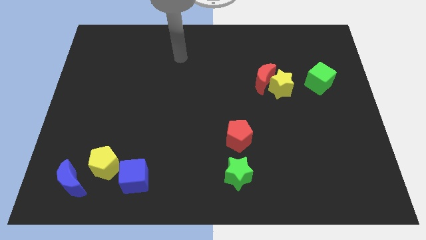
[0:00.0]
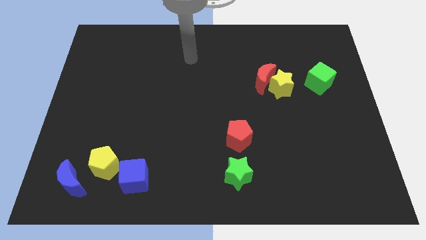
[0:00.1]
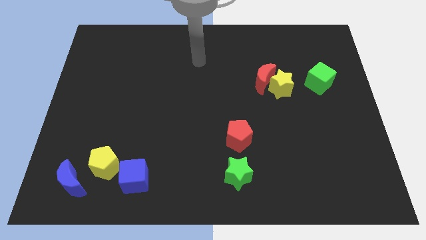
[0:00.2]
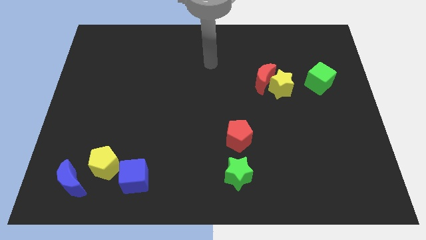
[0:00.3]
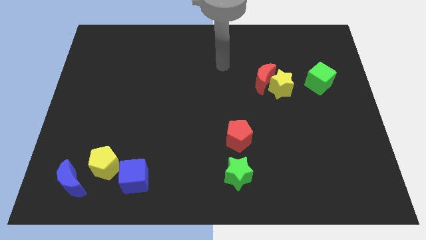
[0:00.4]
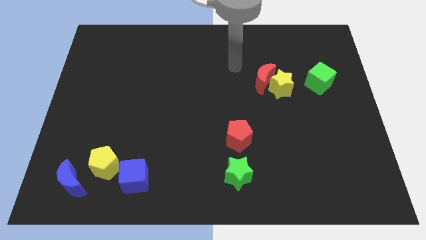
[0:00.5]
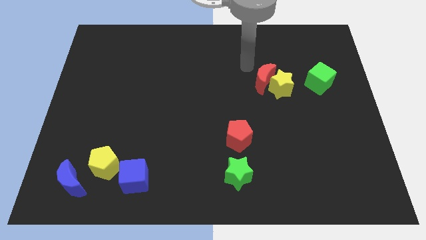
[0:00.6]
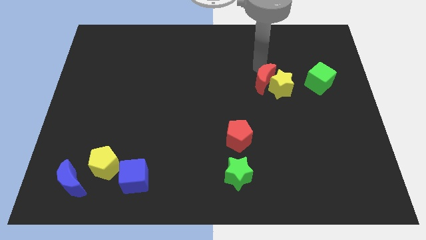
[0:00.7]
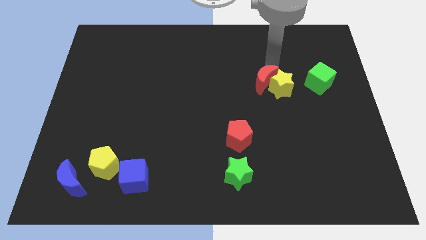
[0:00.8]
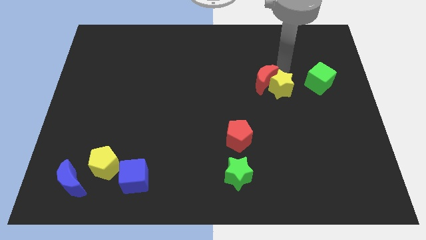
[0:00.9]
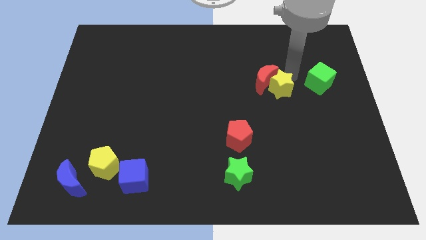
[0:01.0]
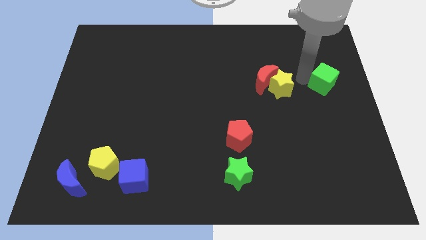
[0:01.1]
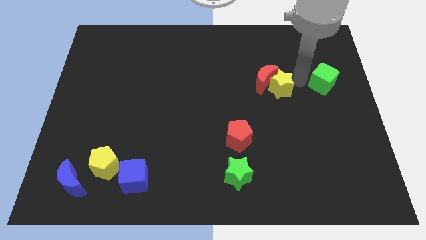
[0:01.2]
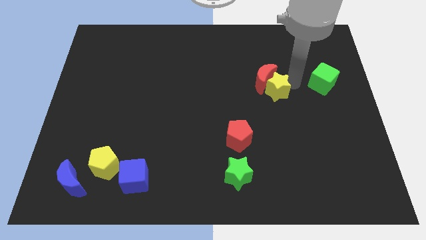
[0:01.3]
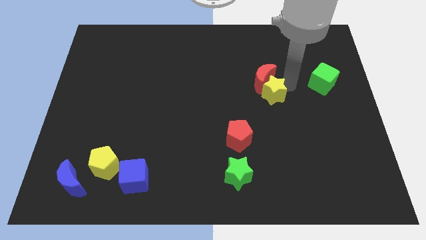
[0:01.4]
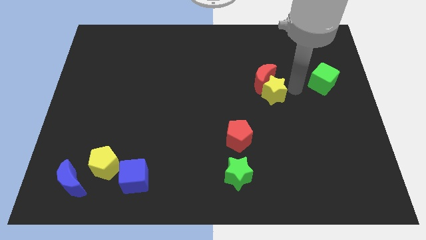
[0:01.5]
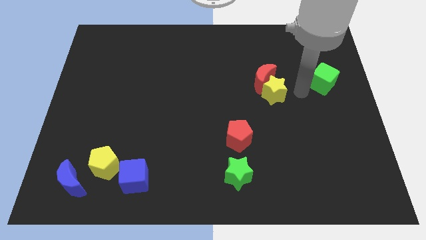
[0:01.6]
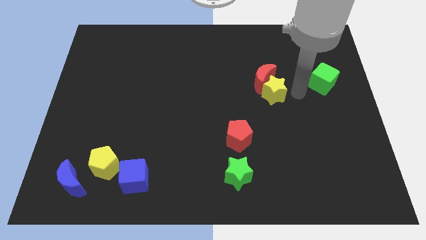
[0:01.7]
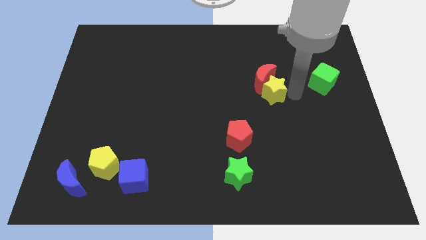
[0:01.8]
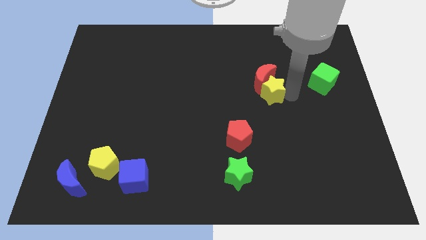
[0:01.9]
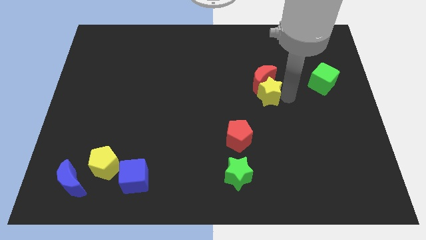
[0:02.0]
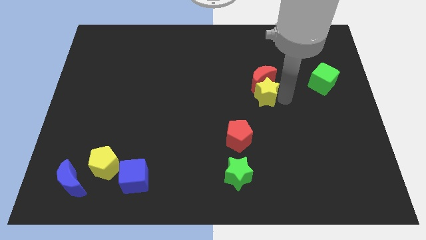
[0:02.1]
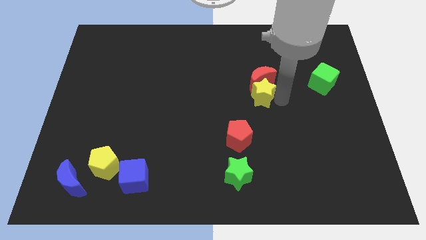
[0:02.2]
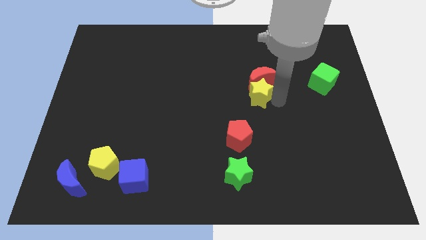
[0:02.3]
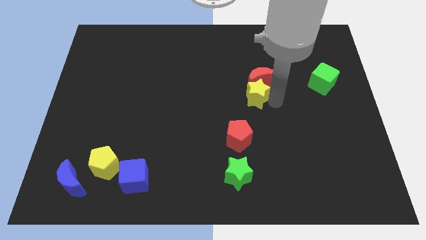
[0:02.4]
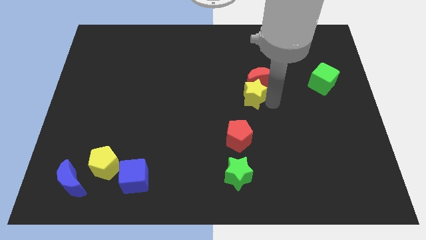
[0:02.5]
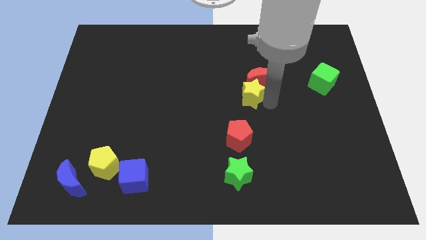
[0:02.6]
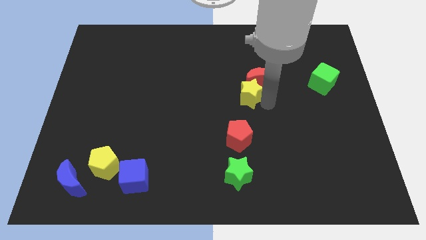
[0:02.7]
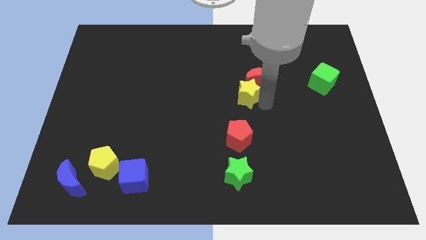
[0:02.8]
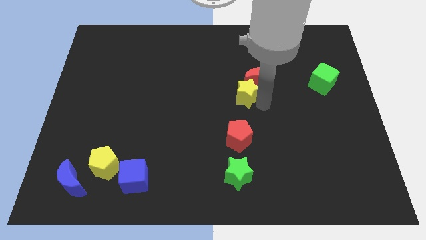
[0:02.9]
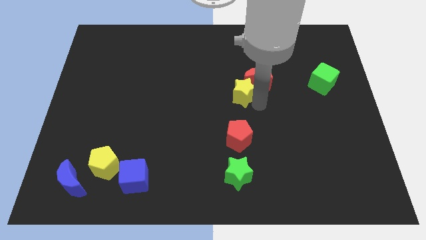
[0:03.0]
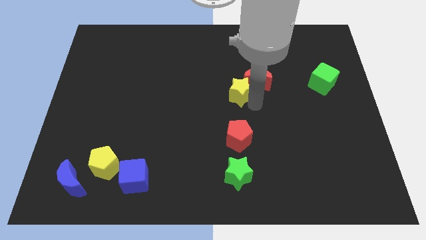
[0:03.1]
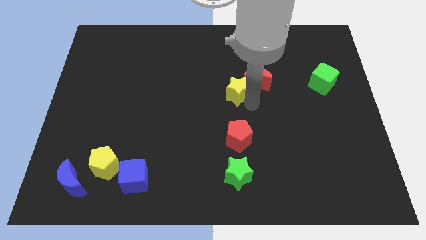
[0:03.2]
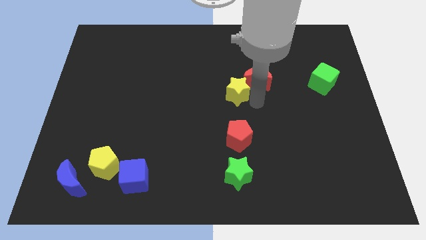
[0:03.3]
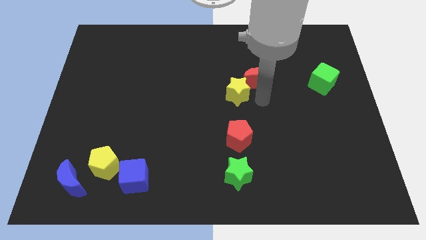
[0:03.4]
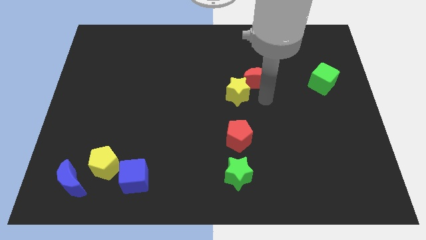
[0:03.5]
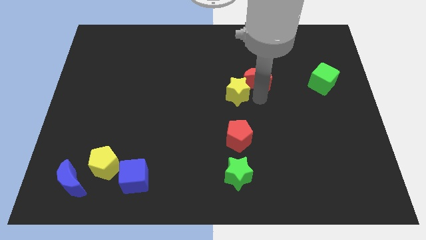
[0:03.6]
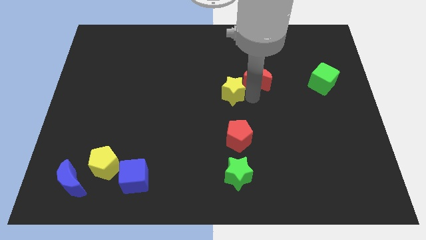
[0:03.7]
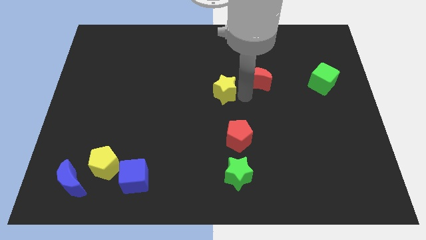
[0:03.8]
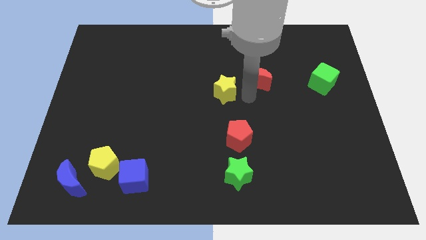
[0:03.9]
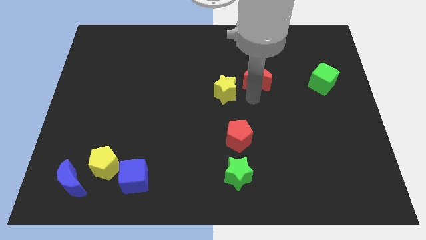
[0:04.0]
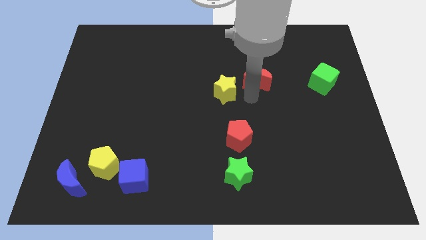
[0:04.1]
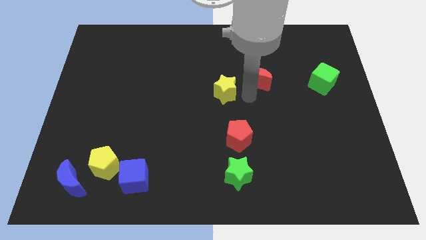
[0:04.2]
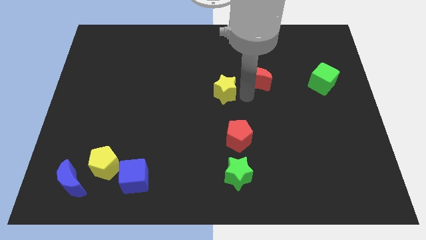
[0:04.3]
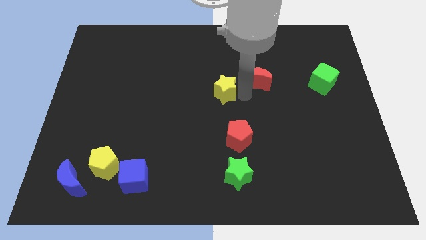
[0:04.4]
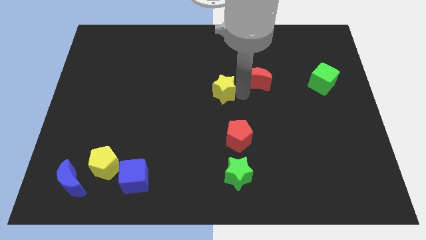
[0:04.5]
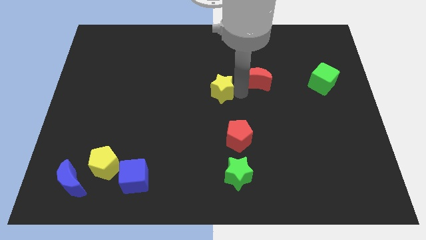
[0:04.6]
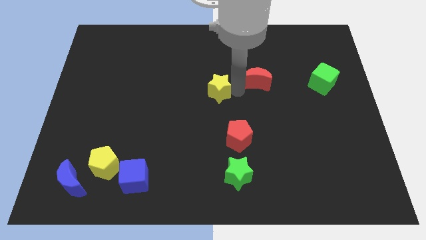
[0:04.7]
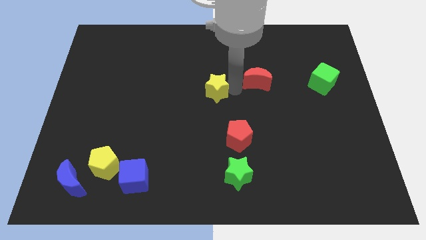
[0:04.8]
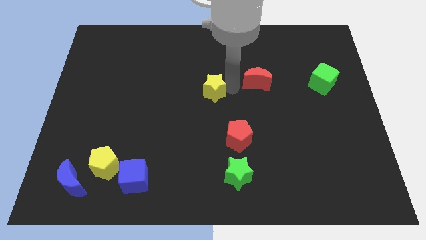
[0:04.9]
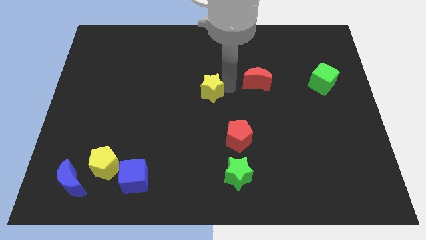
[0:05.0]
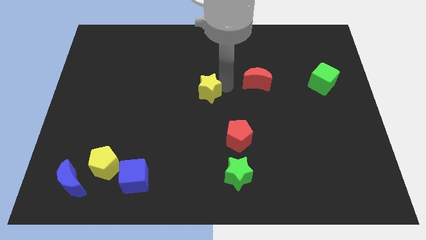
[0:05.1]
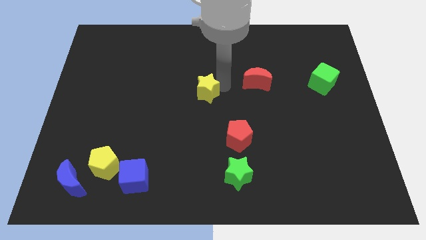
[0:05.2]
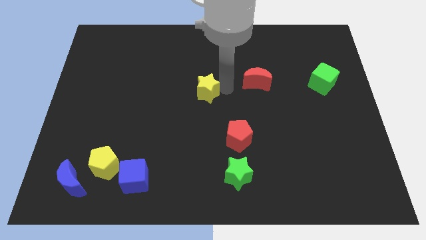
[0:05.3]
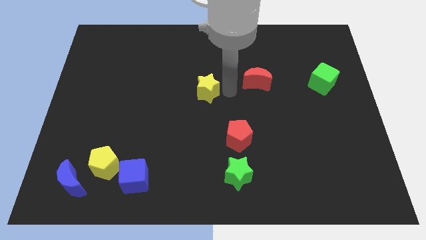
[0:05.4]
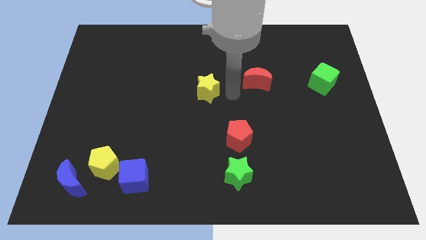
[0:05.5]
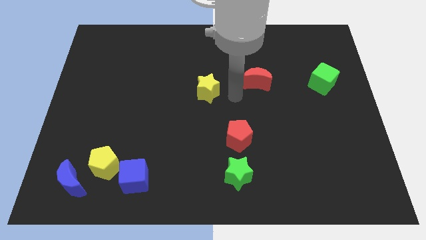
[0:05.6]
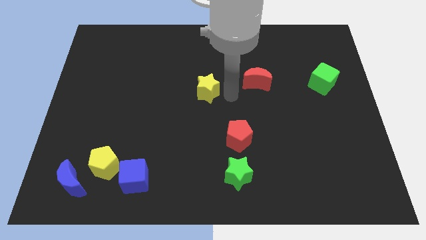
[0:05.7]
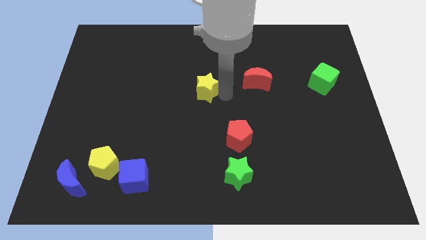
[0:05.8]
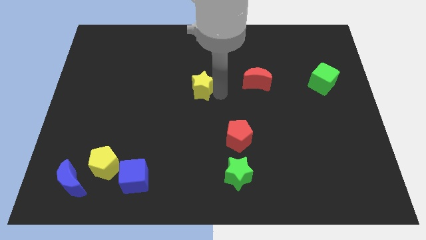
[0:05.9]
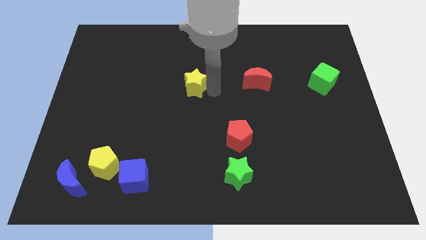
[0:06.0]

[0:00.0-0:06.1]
slide the yellow star left

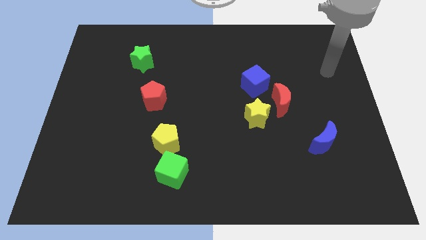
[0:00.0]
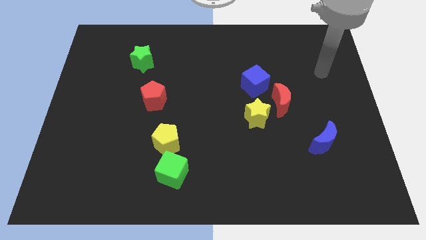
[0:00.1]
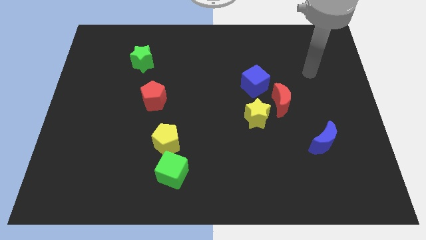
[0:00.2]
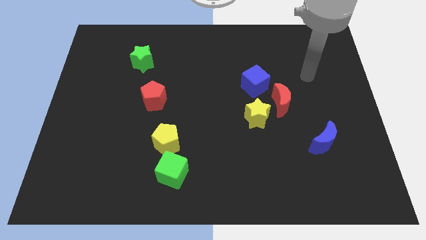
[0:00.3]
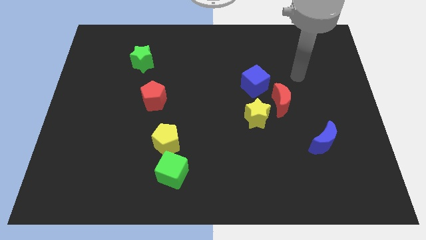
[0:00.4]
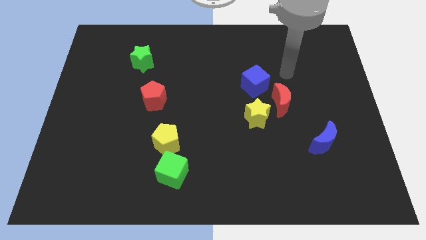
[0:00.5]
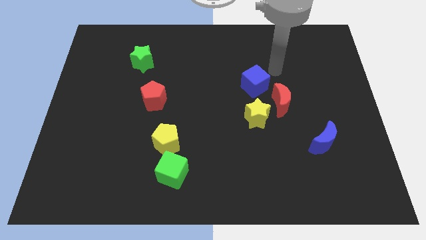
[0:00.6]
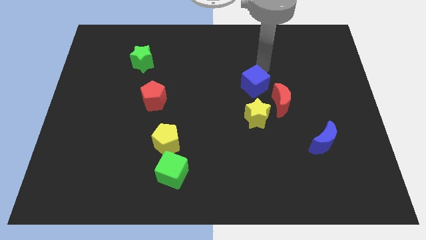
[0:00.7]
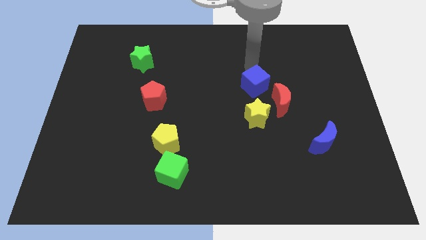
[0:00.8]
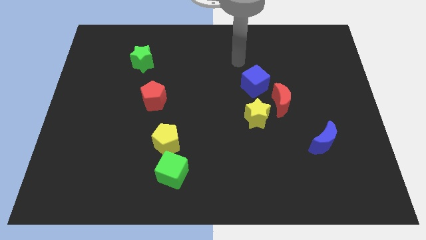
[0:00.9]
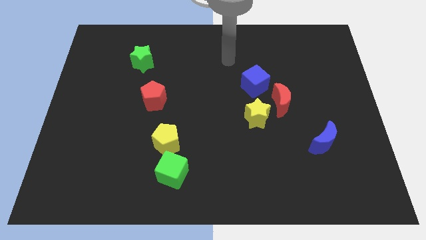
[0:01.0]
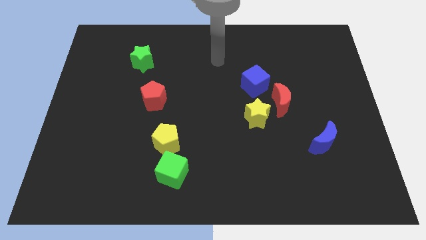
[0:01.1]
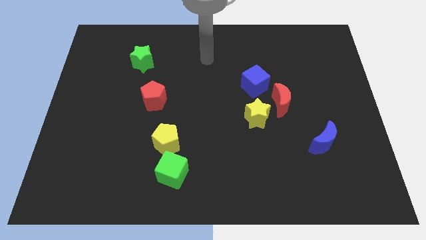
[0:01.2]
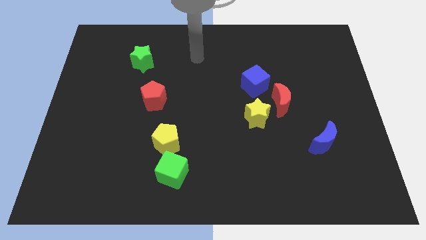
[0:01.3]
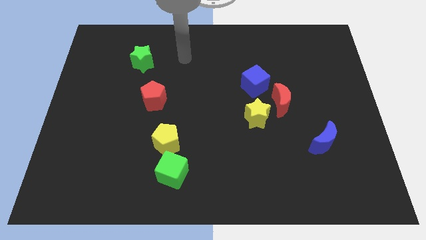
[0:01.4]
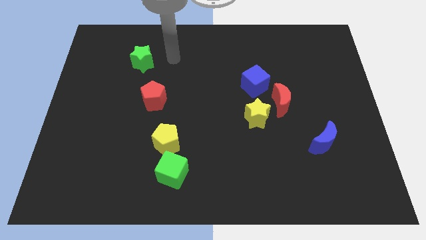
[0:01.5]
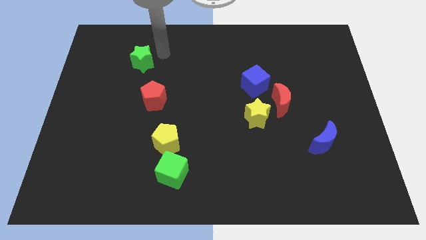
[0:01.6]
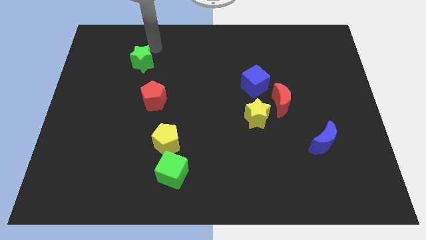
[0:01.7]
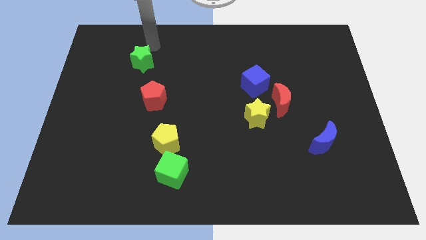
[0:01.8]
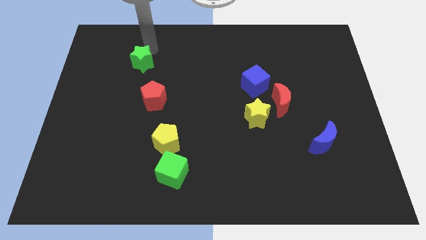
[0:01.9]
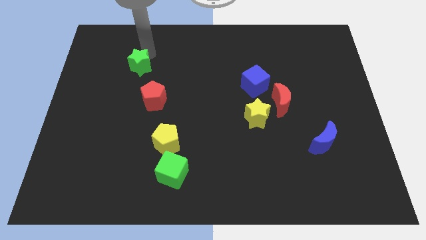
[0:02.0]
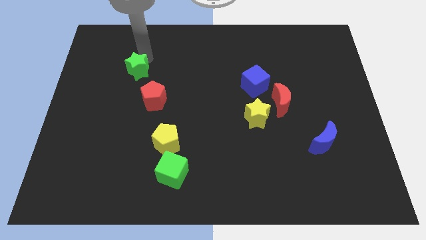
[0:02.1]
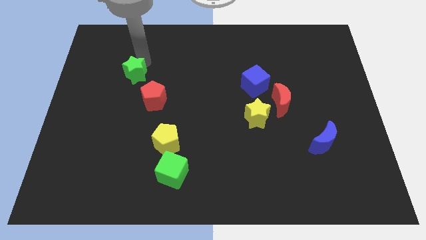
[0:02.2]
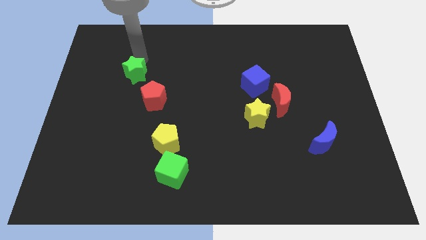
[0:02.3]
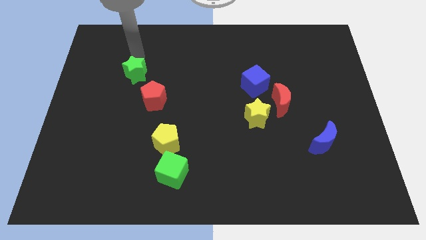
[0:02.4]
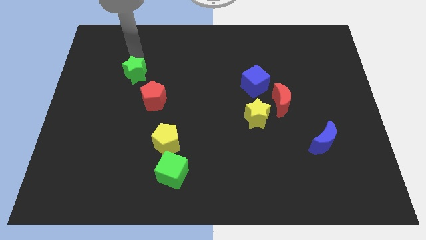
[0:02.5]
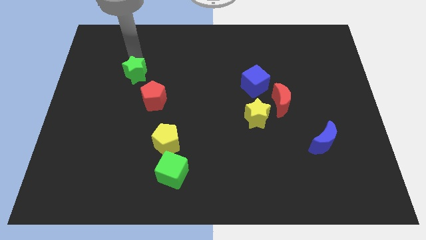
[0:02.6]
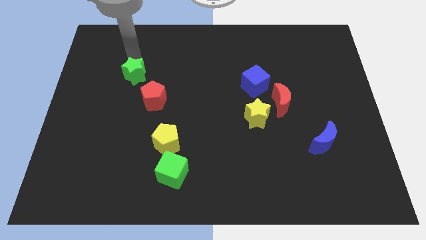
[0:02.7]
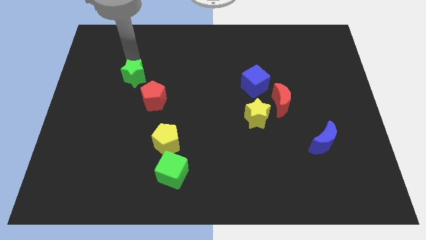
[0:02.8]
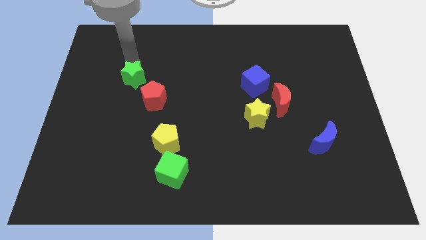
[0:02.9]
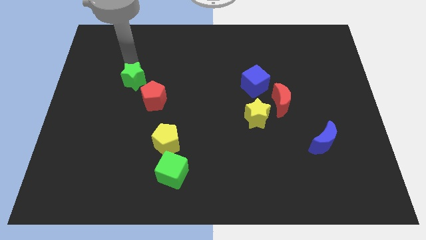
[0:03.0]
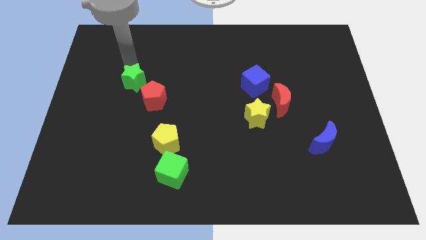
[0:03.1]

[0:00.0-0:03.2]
push the green star downwards somewhat
